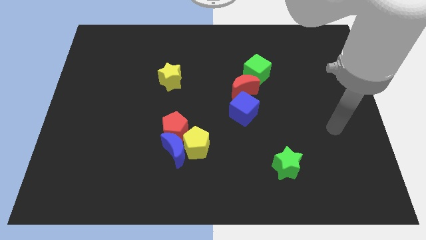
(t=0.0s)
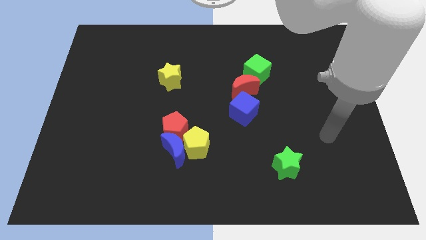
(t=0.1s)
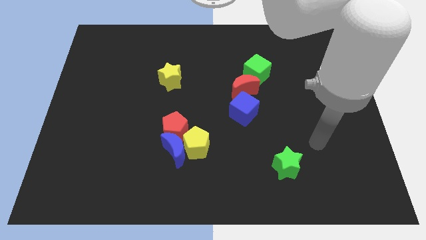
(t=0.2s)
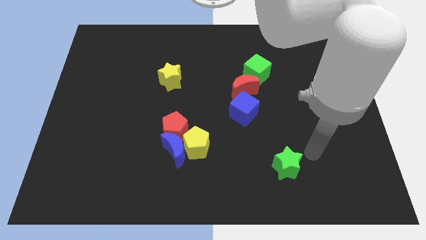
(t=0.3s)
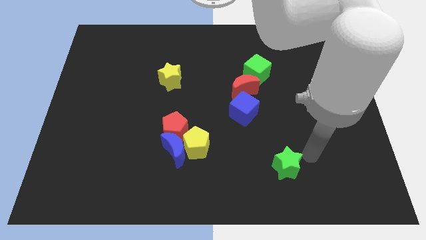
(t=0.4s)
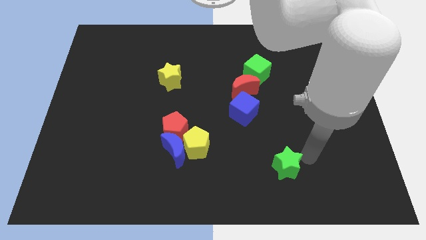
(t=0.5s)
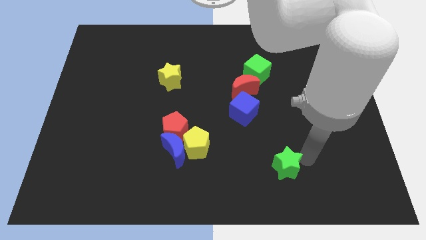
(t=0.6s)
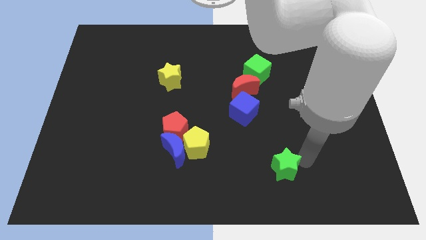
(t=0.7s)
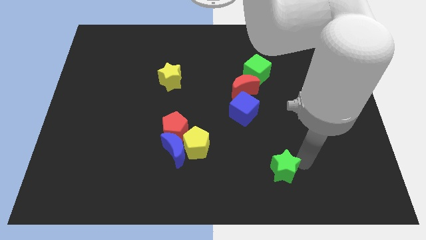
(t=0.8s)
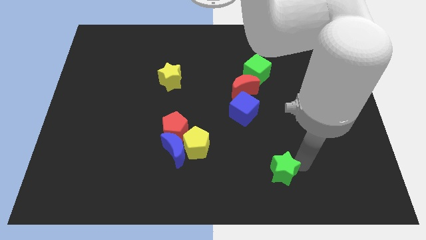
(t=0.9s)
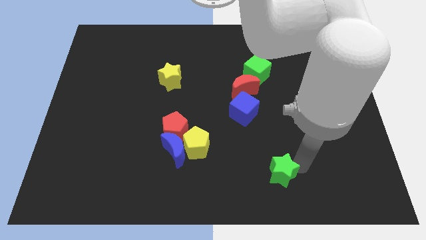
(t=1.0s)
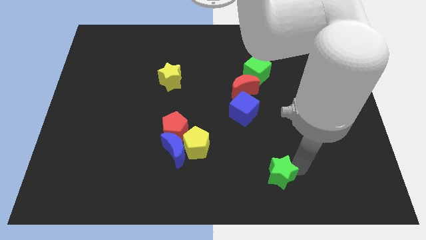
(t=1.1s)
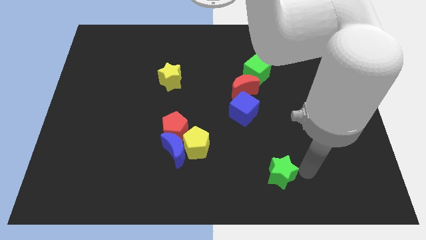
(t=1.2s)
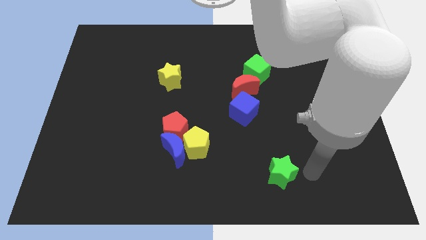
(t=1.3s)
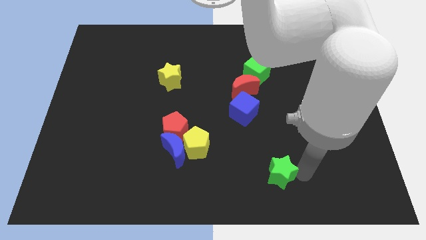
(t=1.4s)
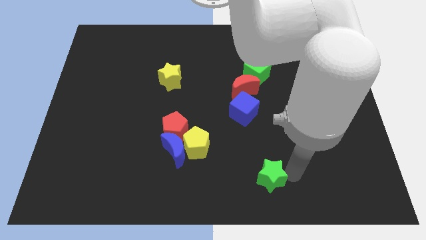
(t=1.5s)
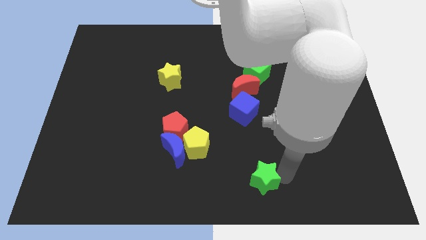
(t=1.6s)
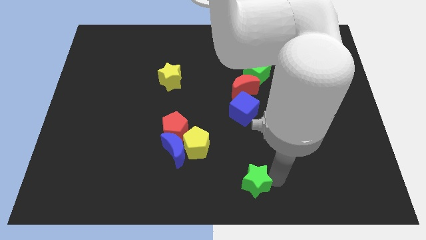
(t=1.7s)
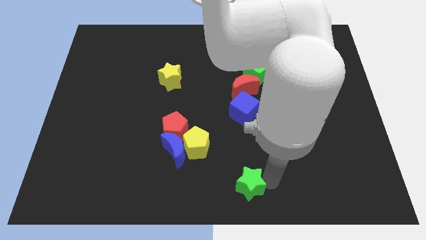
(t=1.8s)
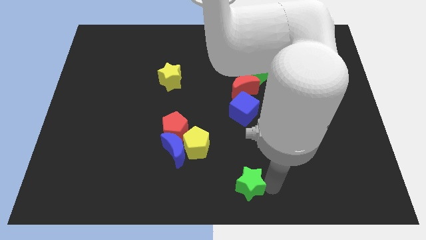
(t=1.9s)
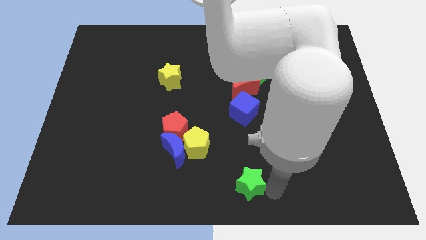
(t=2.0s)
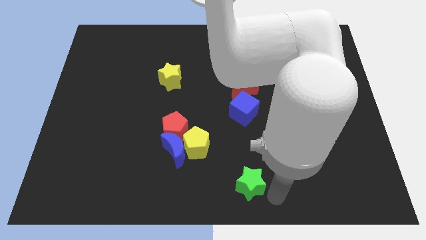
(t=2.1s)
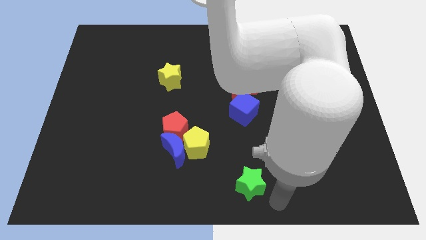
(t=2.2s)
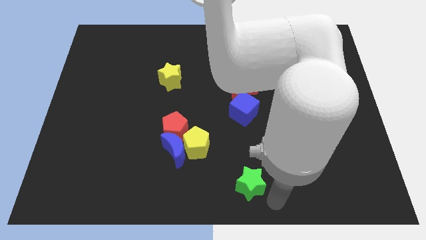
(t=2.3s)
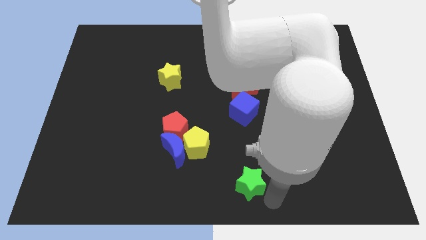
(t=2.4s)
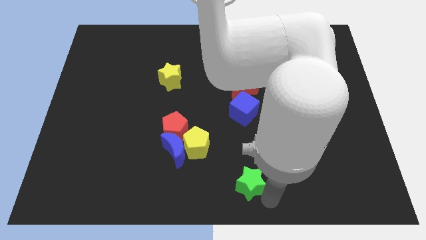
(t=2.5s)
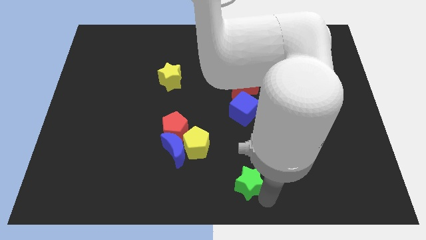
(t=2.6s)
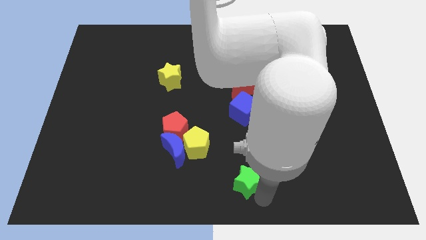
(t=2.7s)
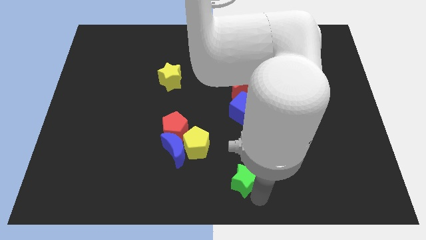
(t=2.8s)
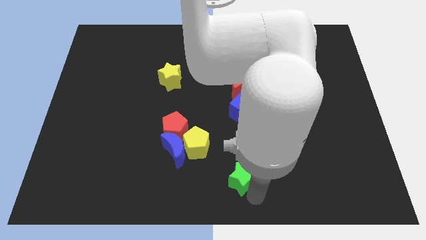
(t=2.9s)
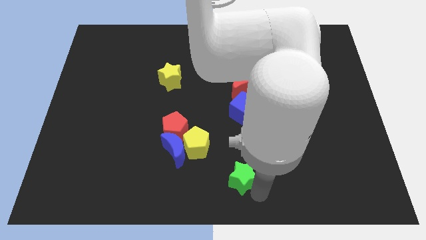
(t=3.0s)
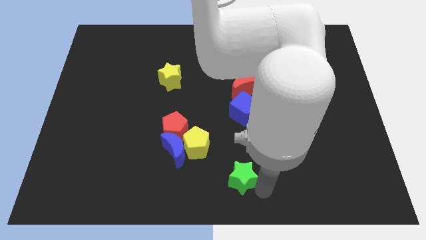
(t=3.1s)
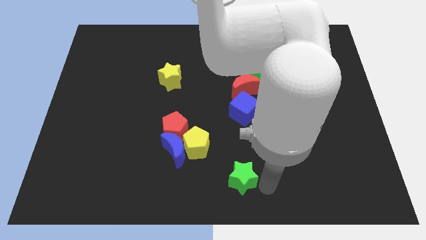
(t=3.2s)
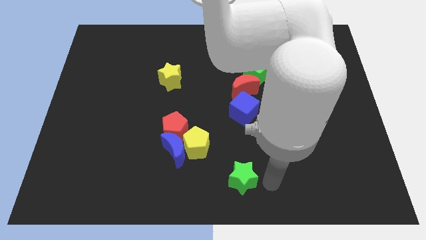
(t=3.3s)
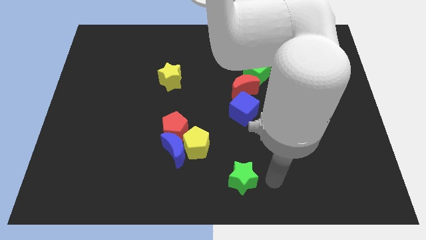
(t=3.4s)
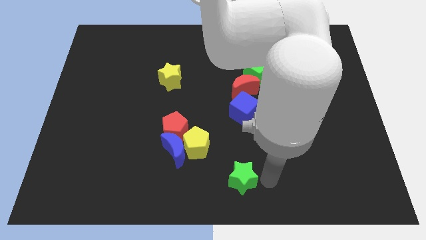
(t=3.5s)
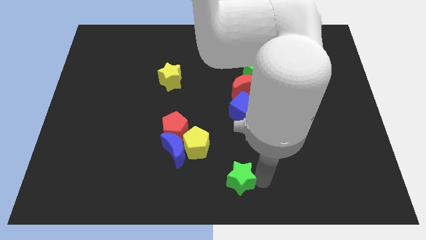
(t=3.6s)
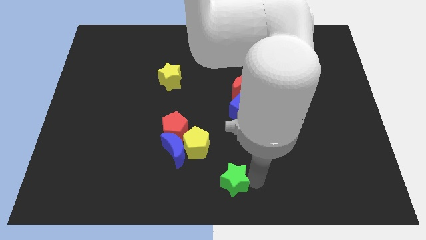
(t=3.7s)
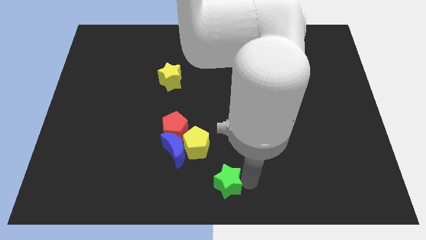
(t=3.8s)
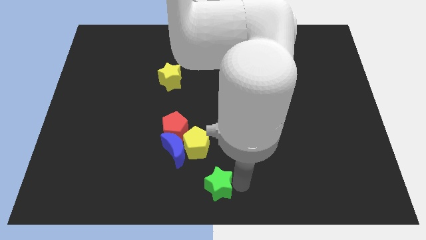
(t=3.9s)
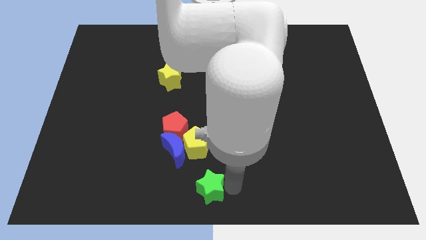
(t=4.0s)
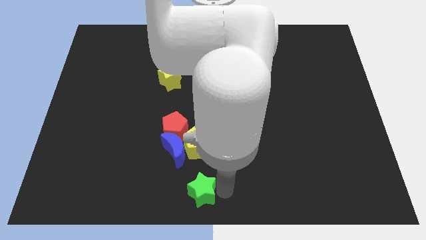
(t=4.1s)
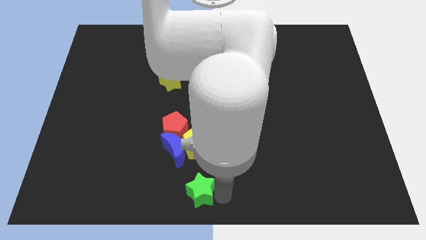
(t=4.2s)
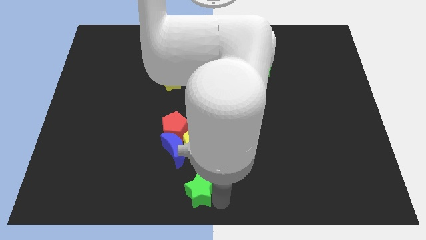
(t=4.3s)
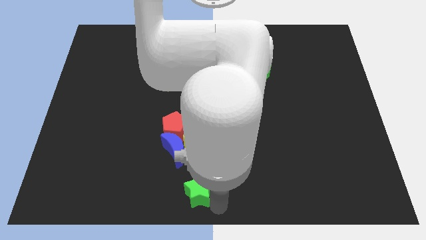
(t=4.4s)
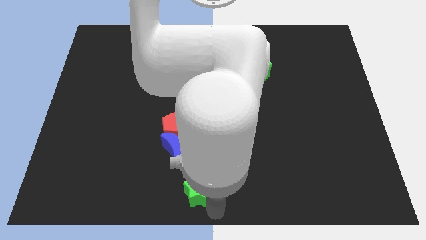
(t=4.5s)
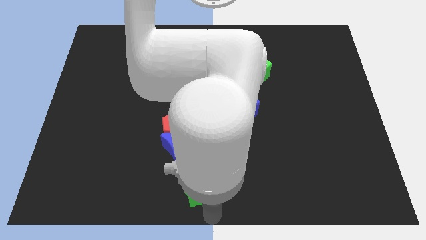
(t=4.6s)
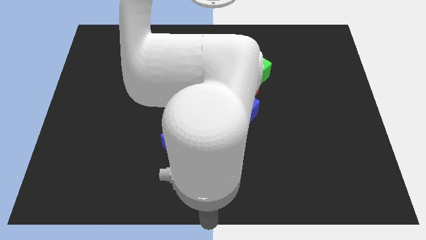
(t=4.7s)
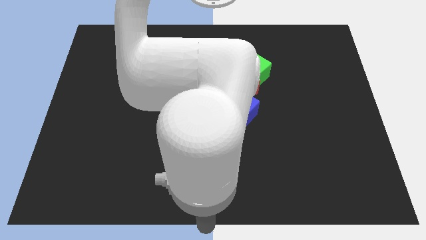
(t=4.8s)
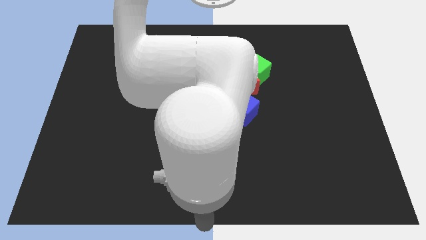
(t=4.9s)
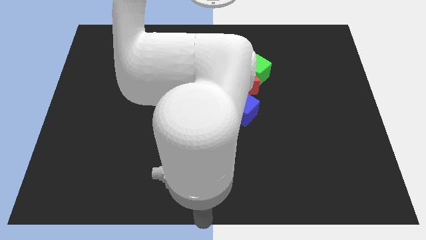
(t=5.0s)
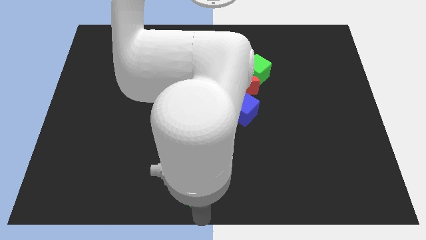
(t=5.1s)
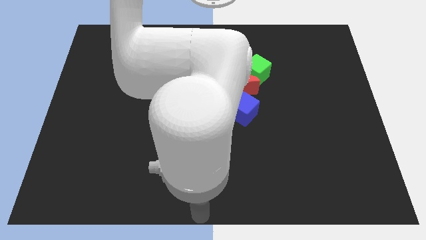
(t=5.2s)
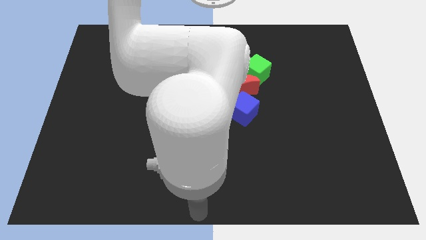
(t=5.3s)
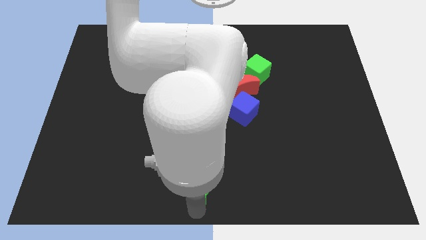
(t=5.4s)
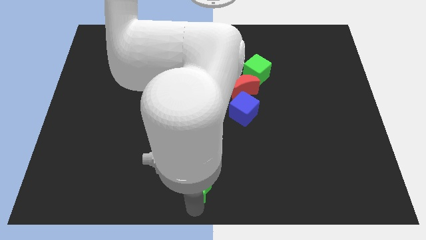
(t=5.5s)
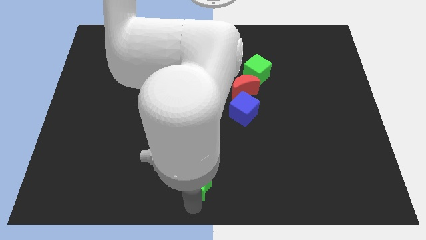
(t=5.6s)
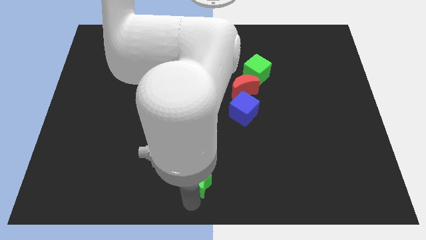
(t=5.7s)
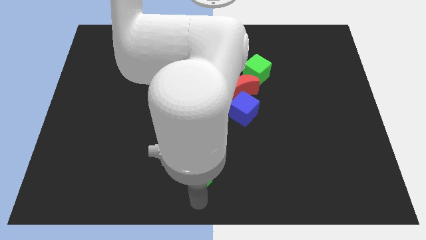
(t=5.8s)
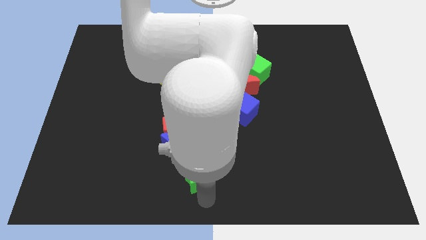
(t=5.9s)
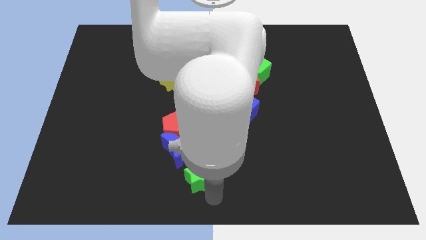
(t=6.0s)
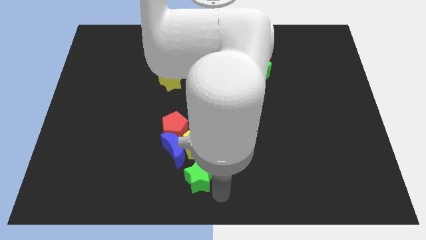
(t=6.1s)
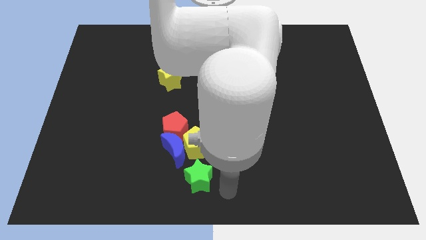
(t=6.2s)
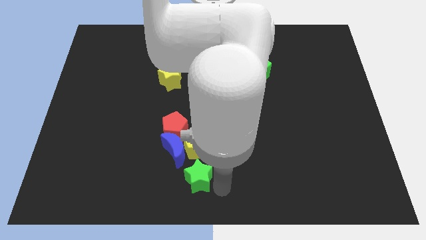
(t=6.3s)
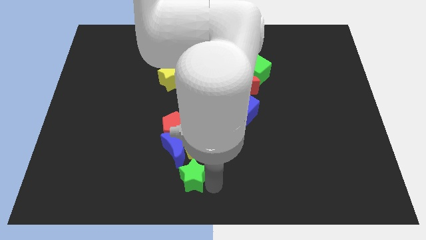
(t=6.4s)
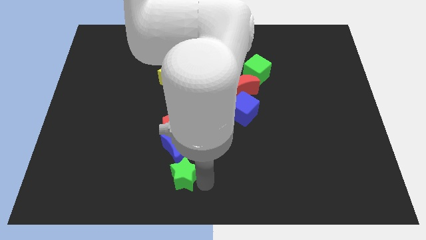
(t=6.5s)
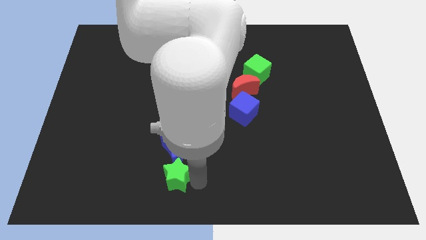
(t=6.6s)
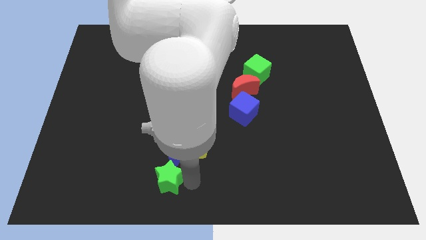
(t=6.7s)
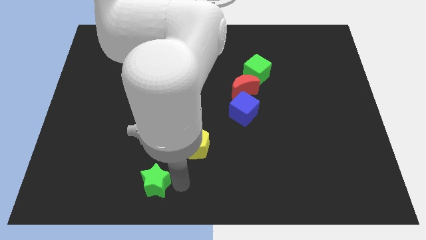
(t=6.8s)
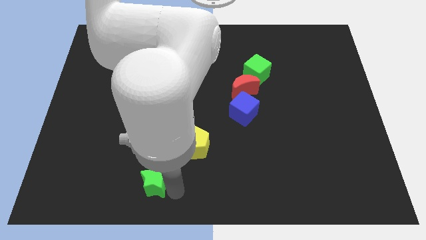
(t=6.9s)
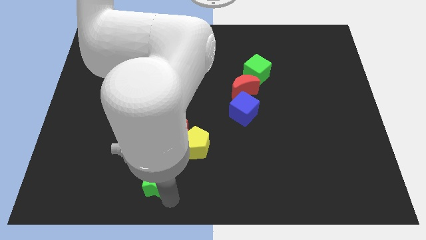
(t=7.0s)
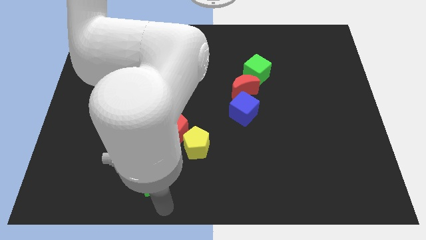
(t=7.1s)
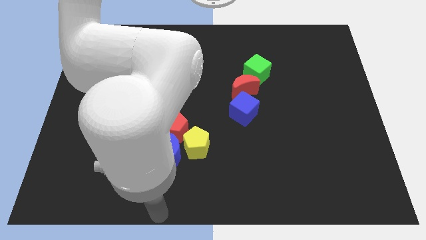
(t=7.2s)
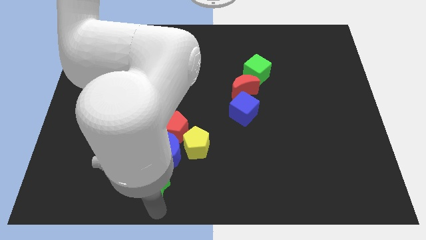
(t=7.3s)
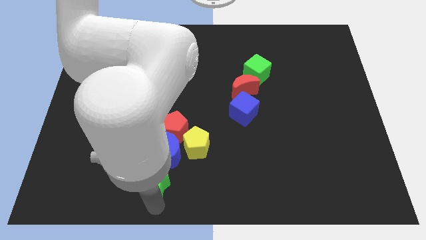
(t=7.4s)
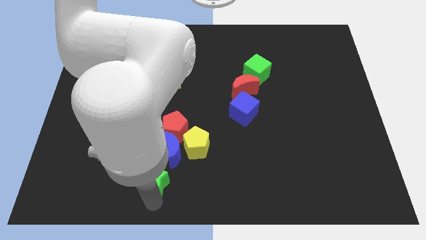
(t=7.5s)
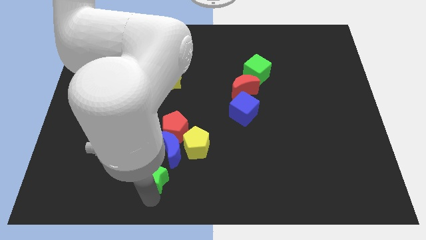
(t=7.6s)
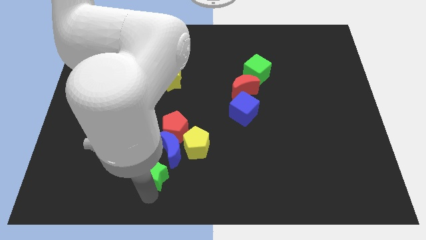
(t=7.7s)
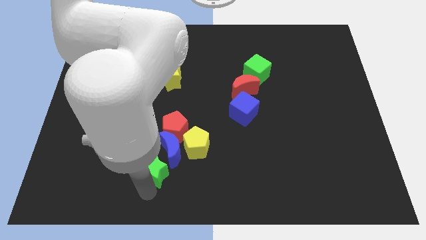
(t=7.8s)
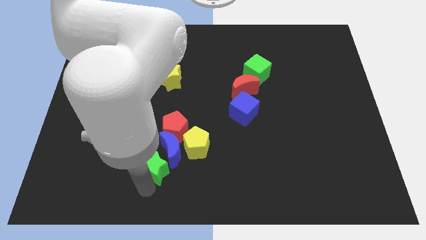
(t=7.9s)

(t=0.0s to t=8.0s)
push the green star diagonally down and to the left of the red pentagon
